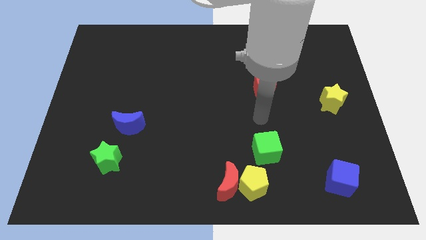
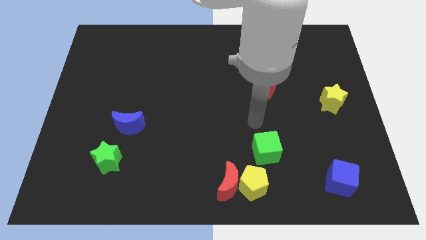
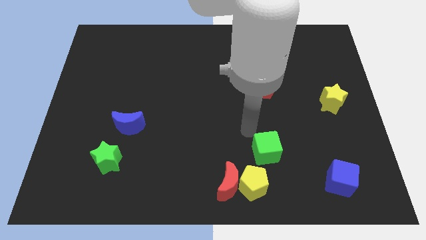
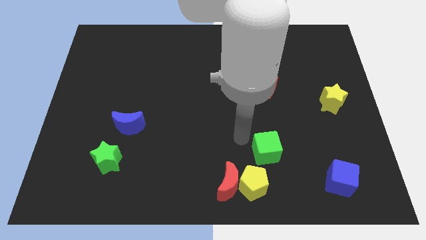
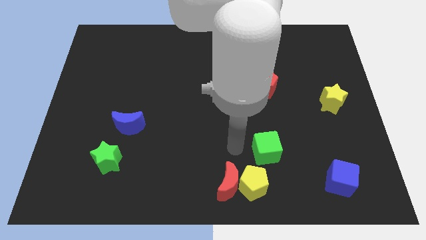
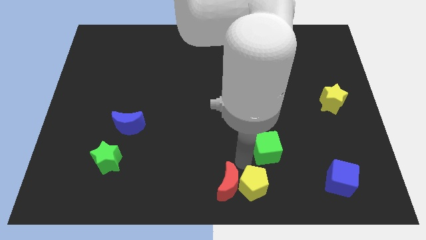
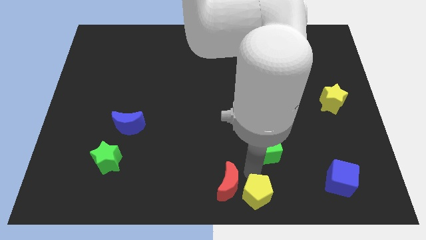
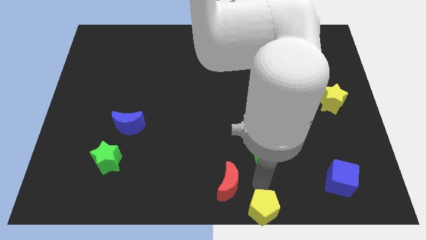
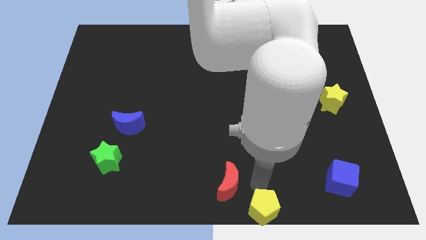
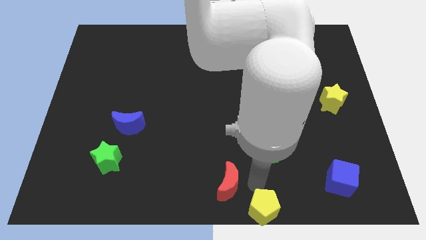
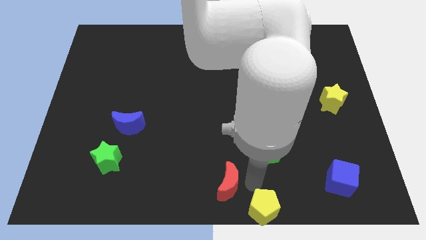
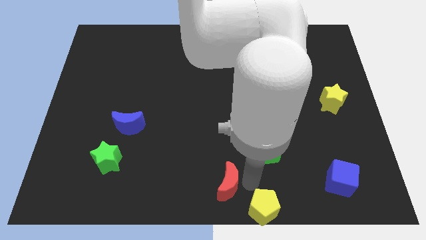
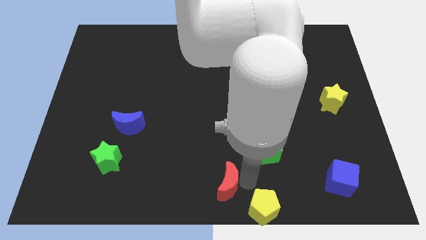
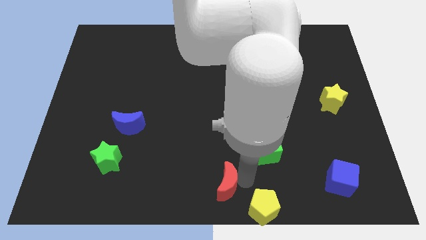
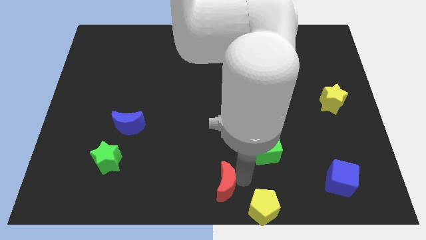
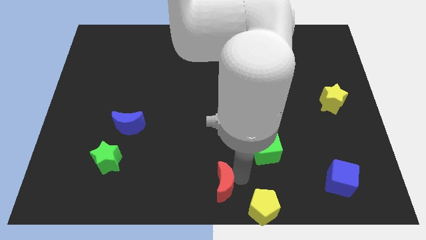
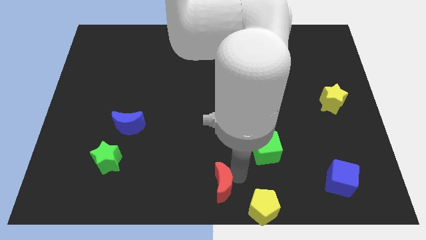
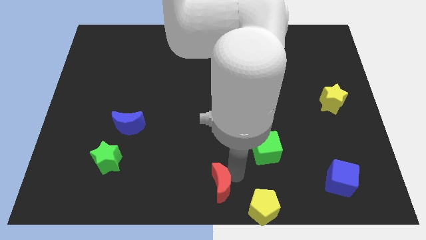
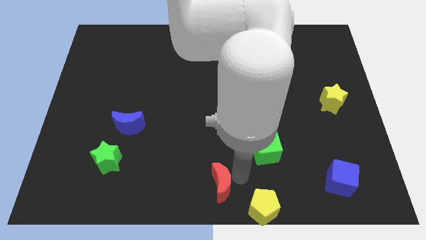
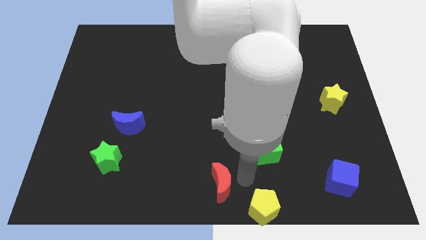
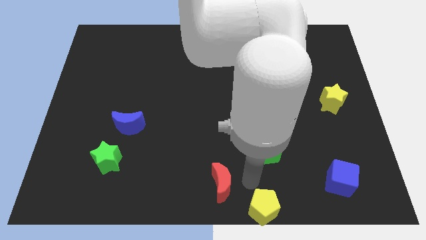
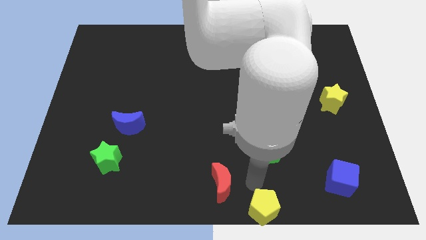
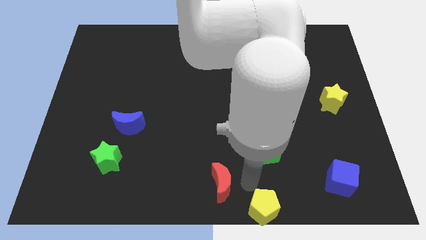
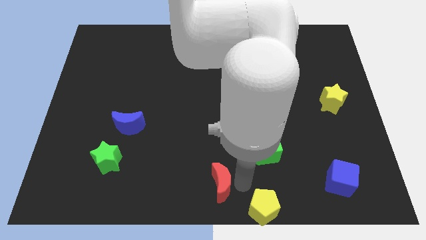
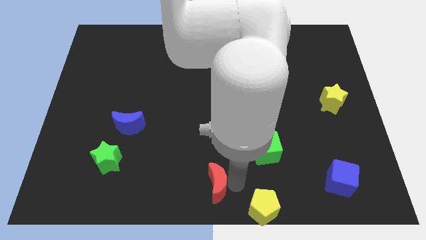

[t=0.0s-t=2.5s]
move the red moon away from the yellow pentagon

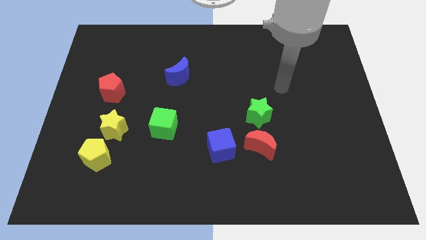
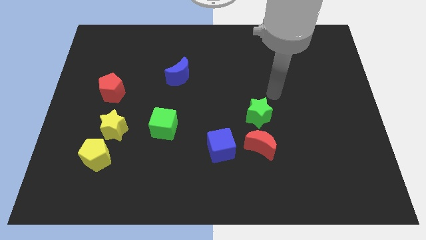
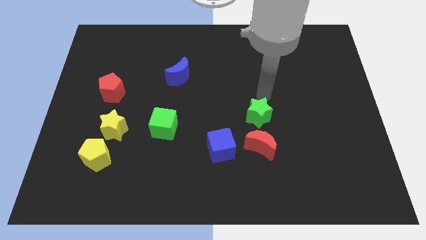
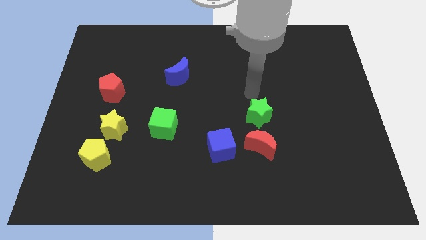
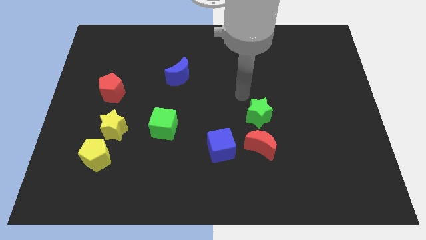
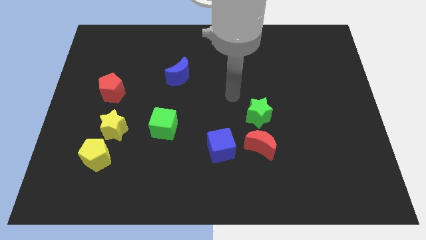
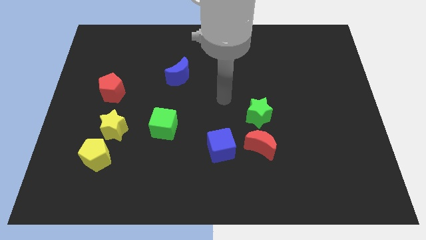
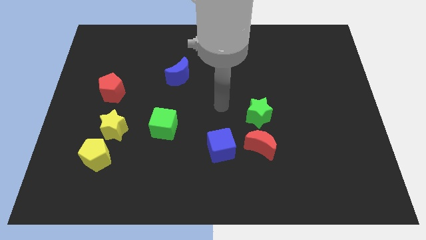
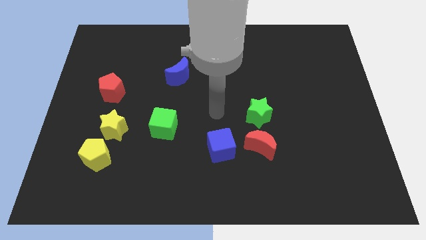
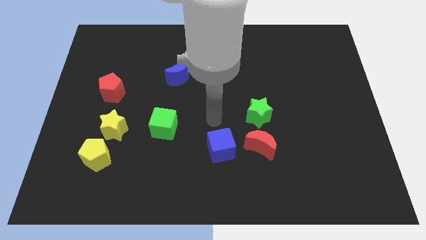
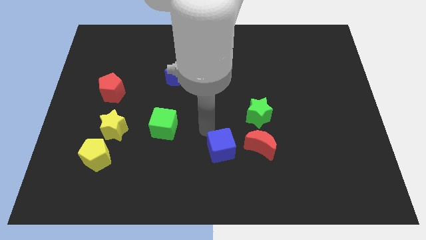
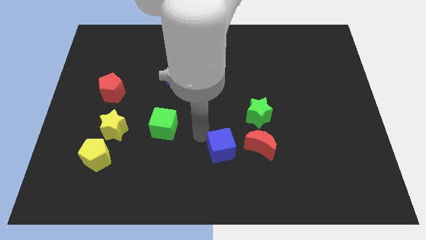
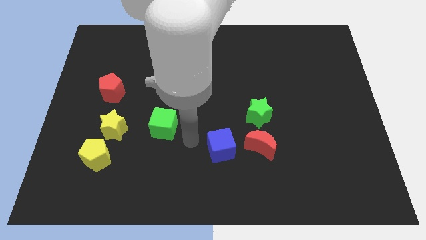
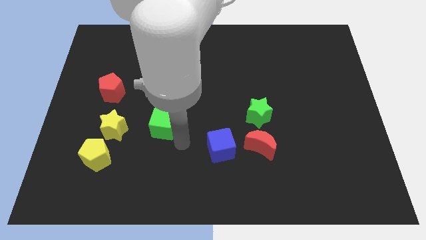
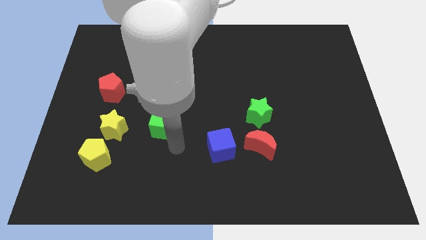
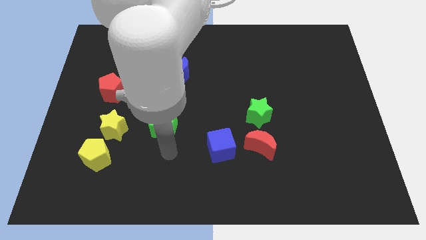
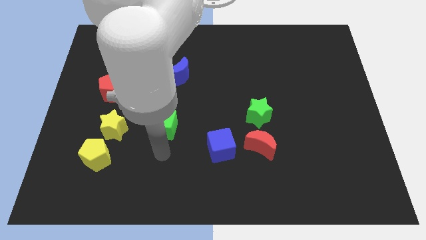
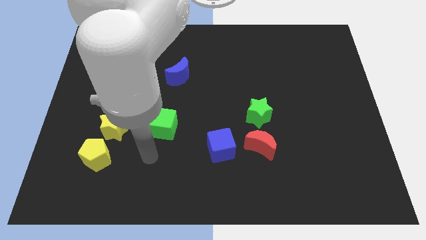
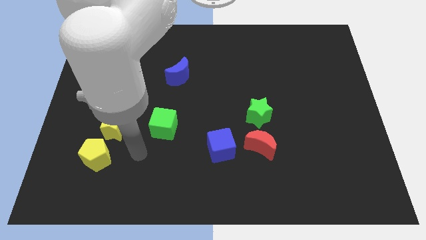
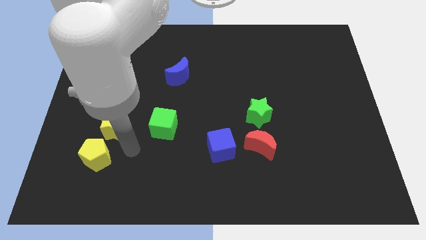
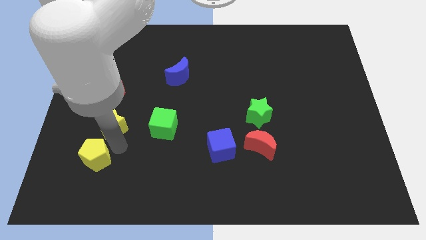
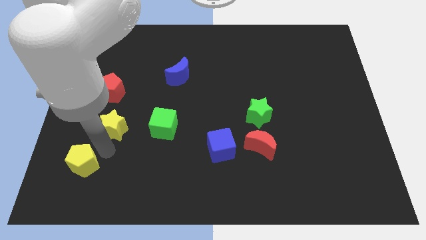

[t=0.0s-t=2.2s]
separate the yellow star from the yellow pentagon

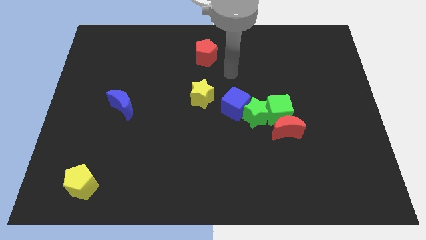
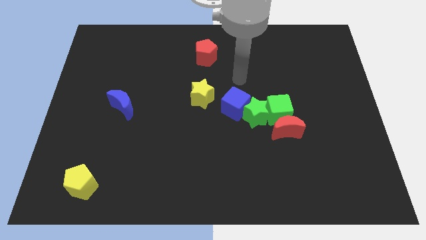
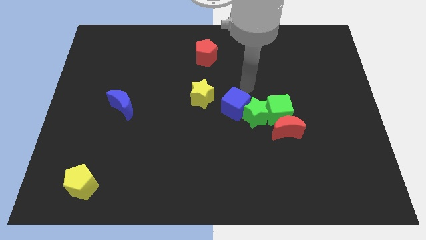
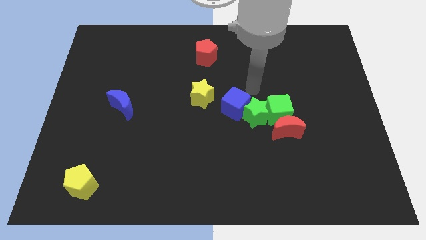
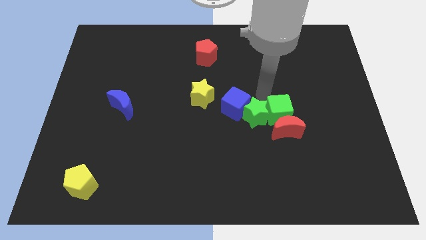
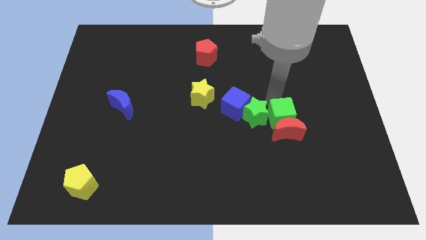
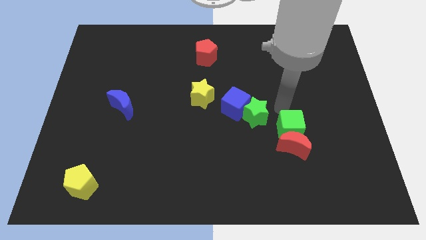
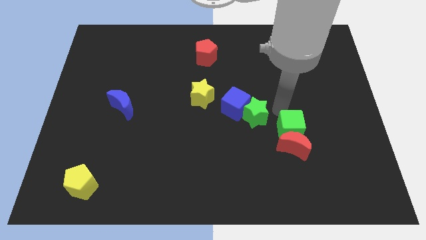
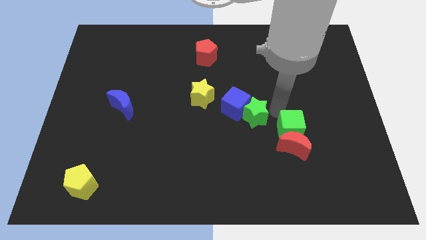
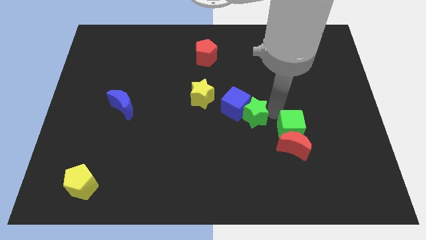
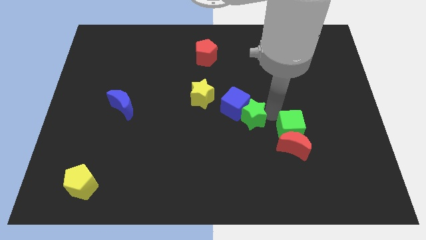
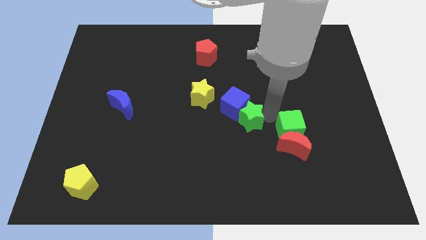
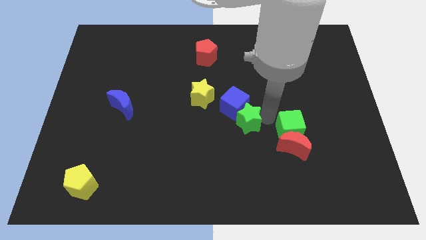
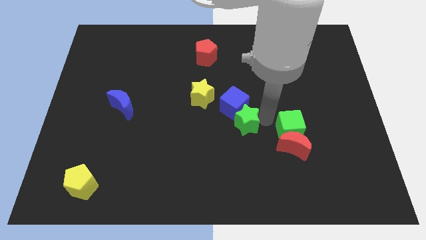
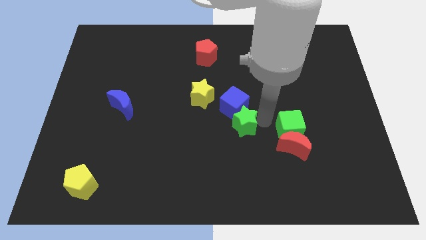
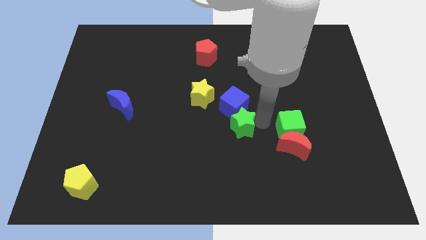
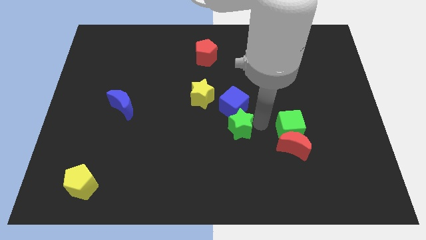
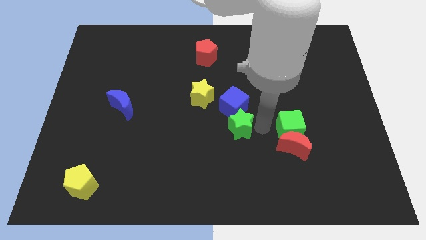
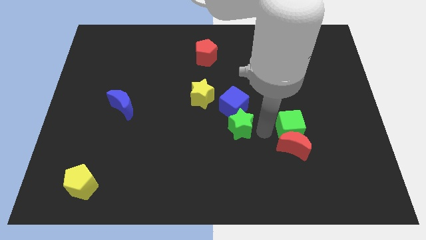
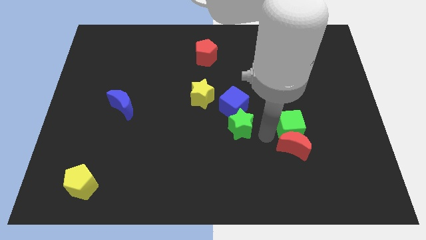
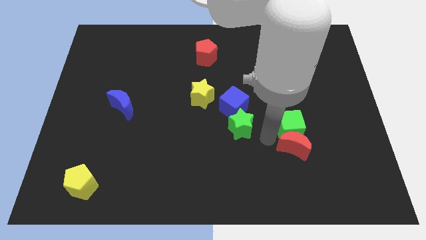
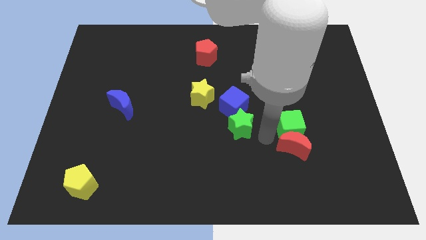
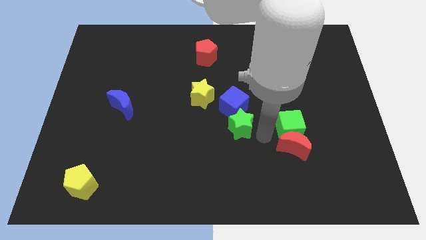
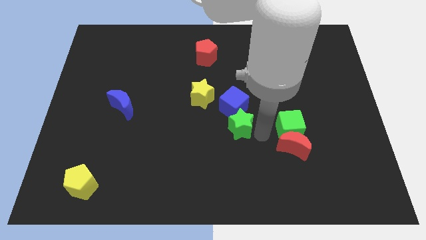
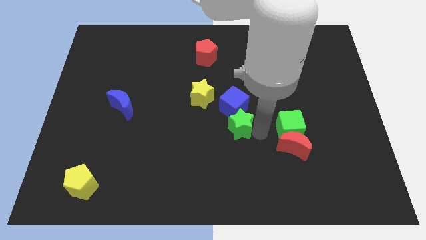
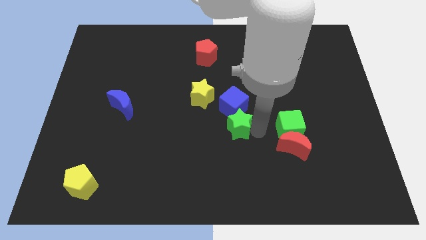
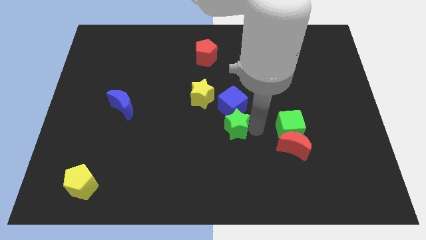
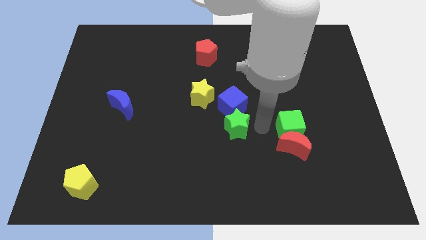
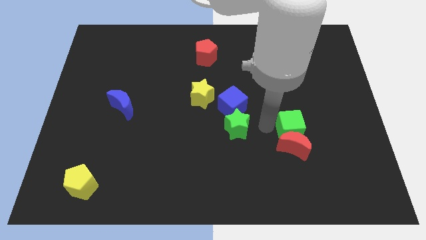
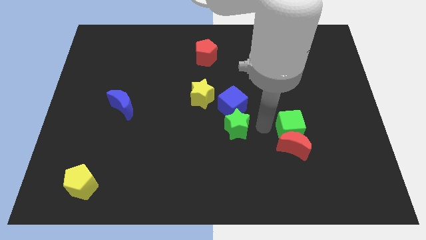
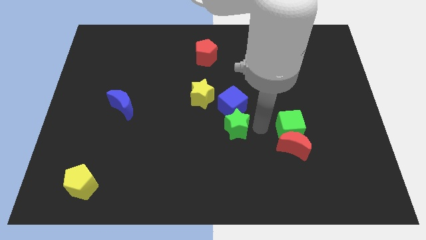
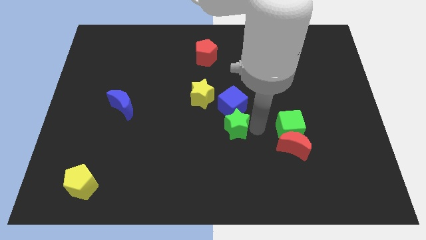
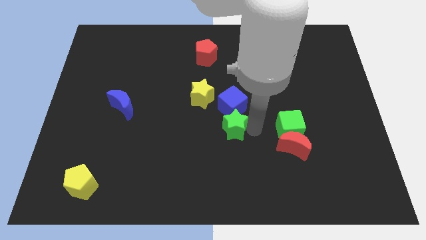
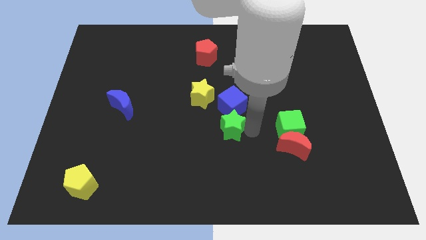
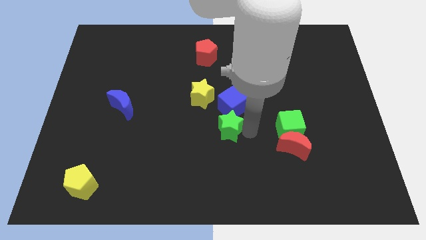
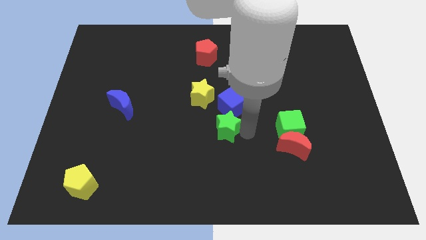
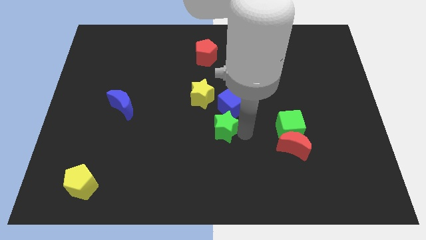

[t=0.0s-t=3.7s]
move the green star away from the green cube, blue cube, and red moon

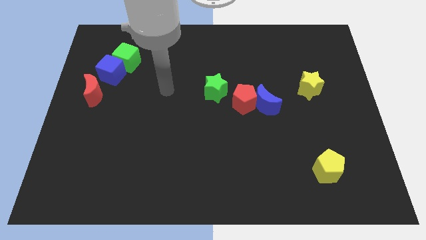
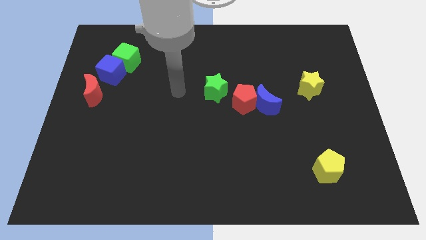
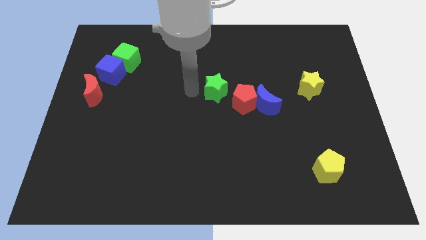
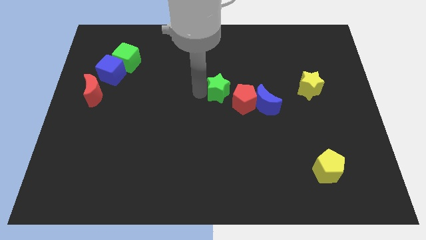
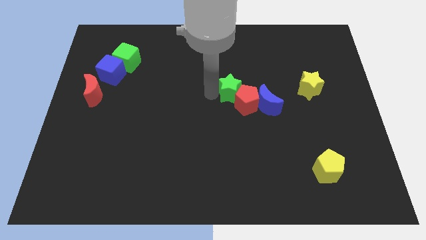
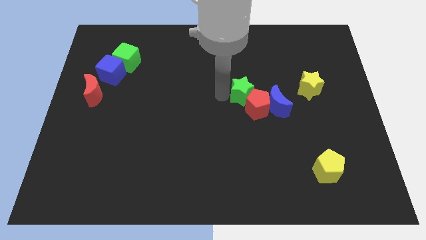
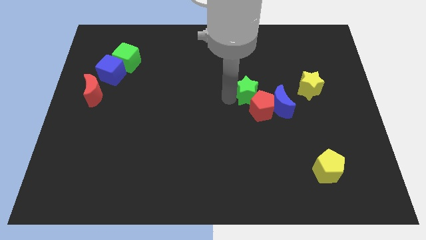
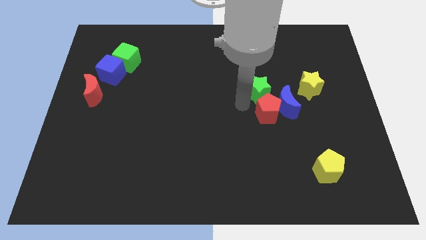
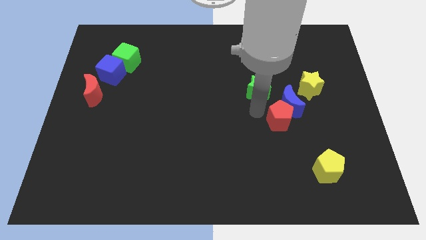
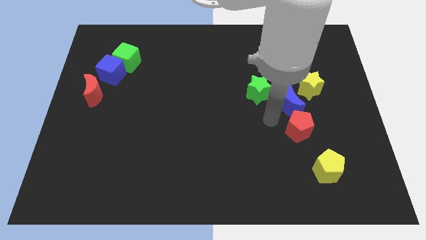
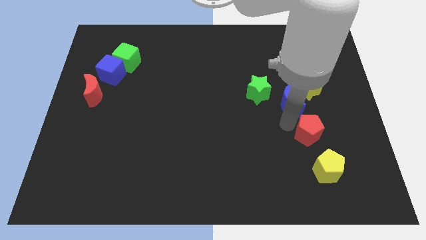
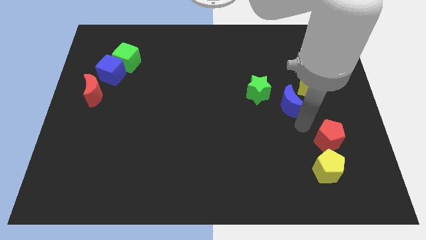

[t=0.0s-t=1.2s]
pull the blue moon apart from the red pentagon
